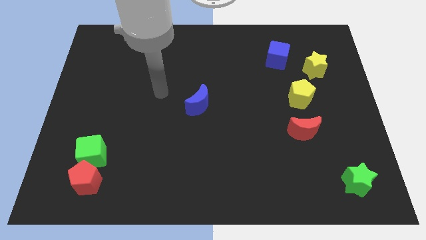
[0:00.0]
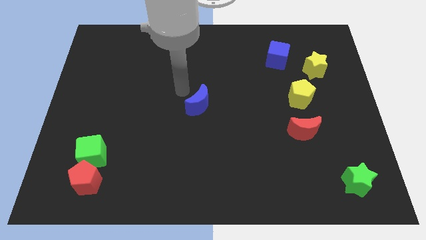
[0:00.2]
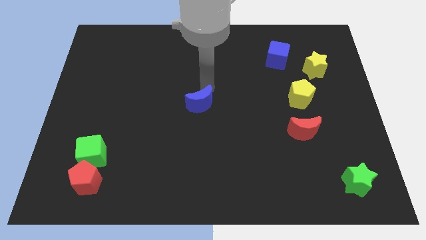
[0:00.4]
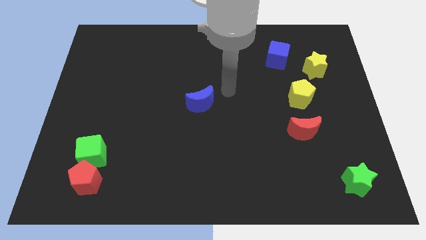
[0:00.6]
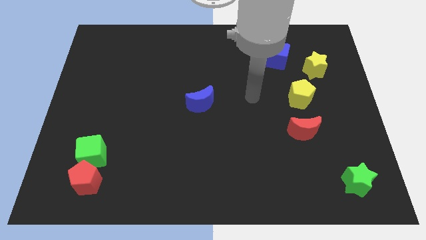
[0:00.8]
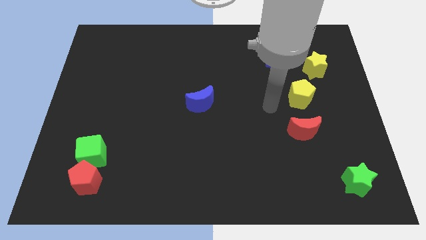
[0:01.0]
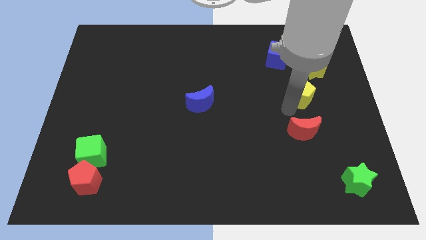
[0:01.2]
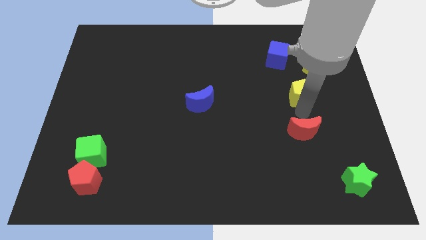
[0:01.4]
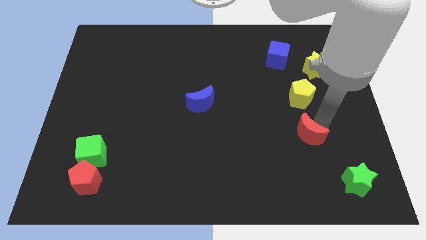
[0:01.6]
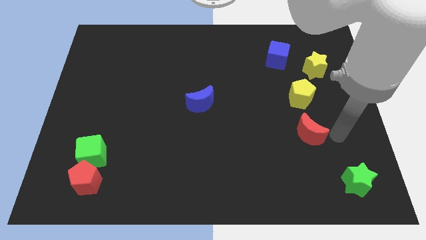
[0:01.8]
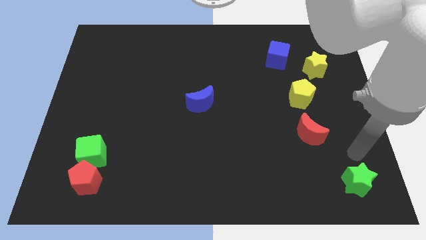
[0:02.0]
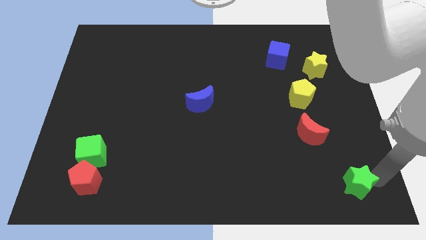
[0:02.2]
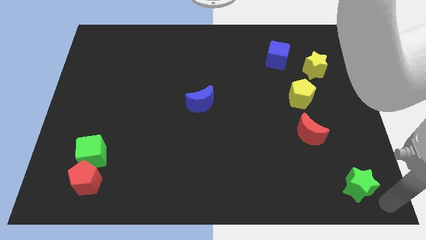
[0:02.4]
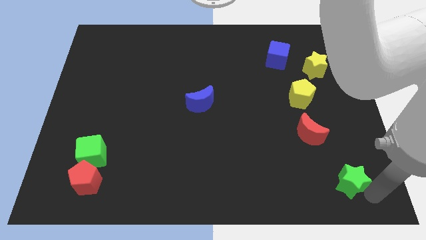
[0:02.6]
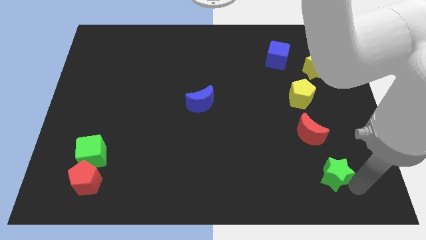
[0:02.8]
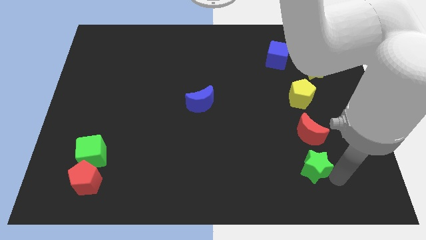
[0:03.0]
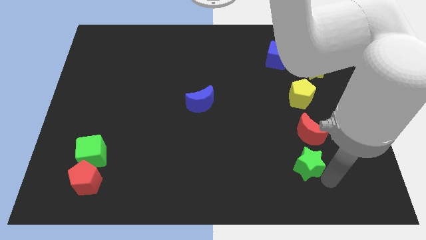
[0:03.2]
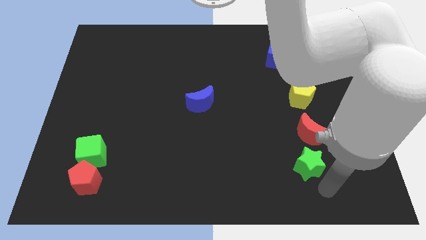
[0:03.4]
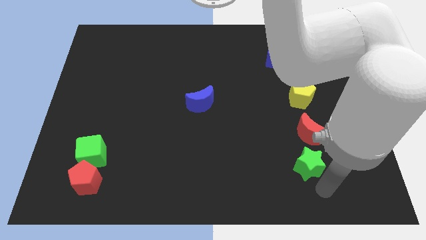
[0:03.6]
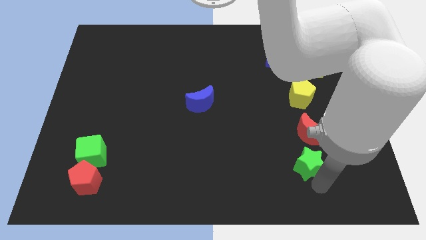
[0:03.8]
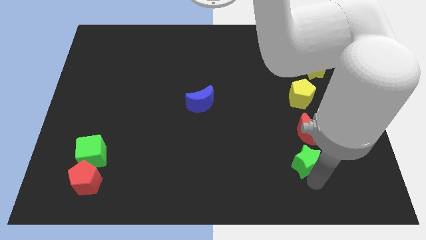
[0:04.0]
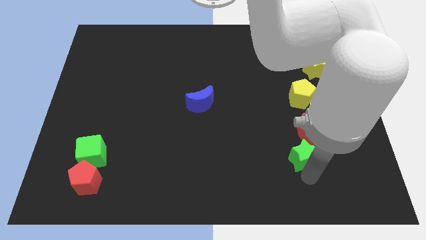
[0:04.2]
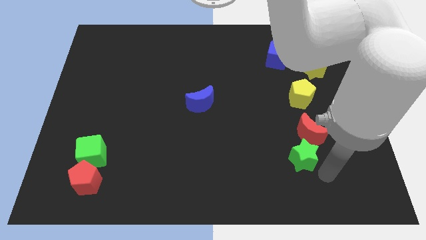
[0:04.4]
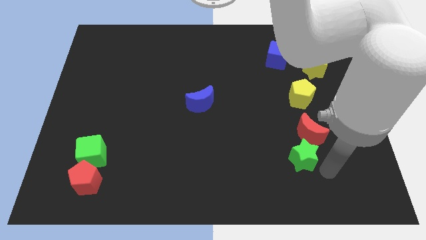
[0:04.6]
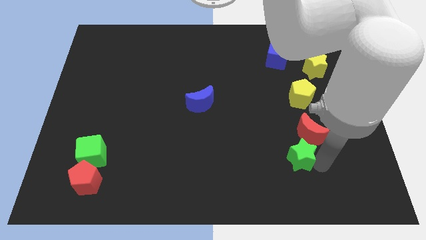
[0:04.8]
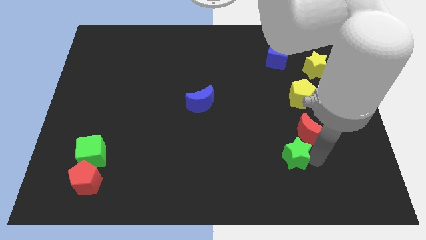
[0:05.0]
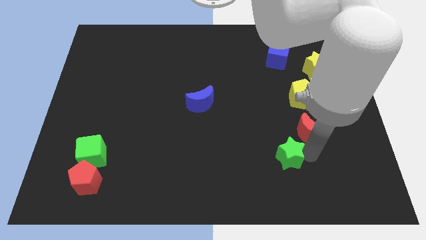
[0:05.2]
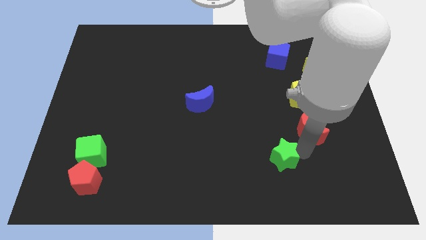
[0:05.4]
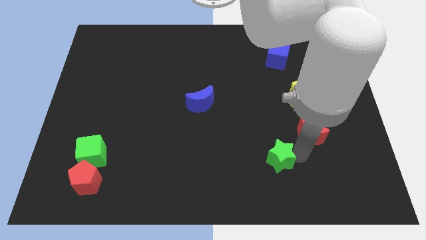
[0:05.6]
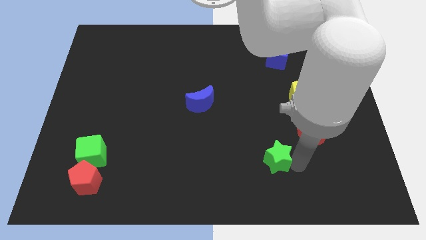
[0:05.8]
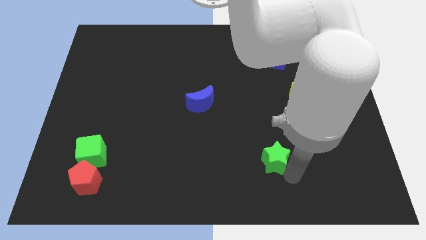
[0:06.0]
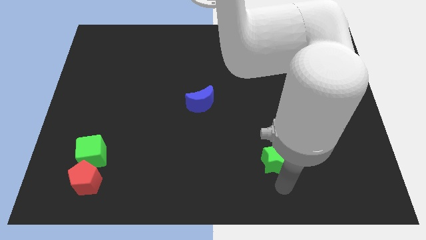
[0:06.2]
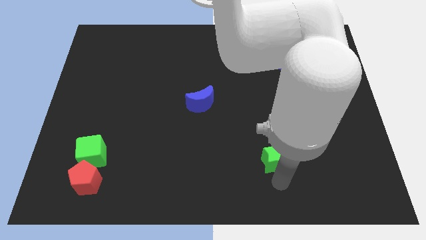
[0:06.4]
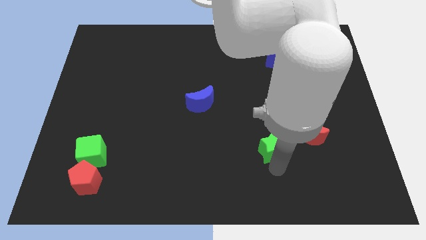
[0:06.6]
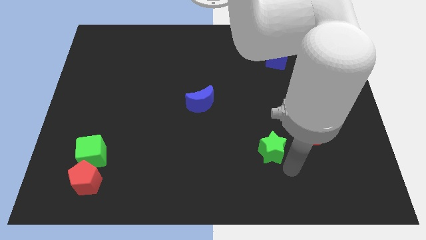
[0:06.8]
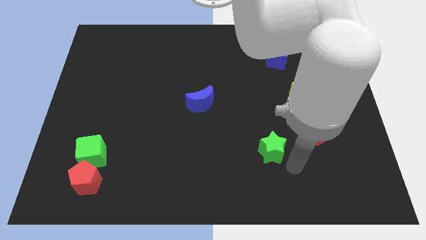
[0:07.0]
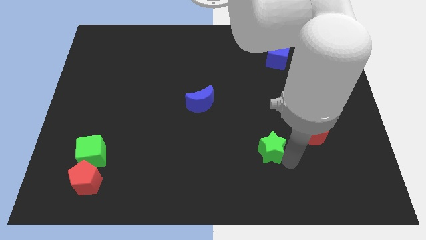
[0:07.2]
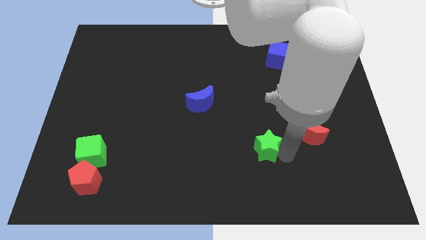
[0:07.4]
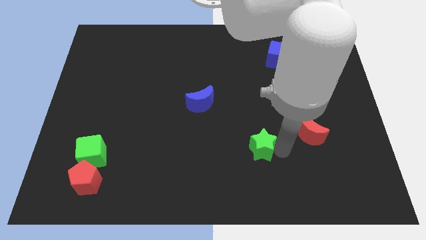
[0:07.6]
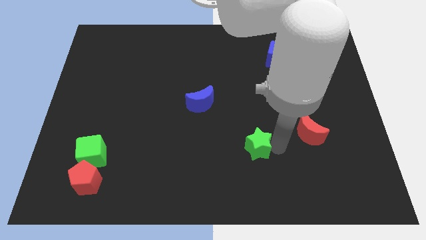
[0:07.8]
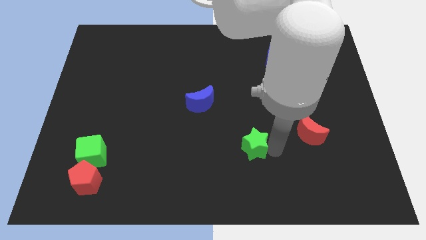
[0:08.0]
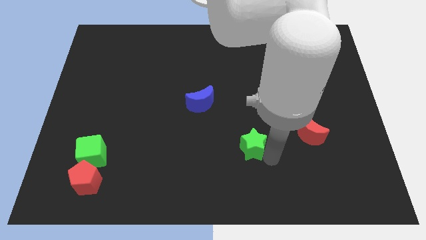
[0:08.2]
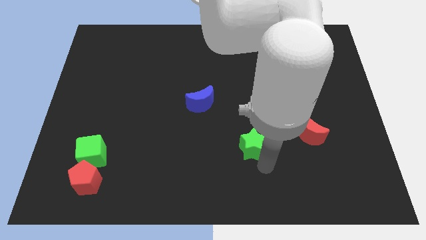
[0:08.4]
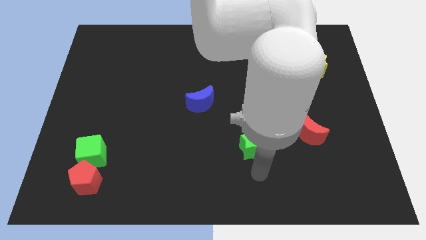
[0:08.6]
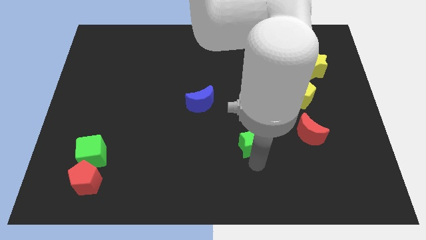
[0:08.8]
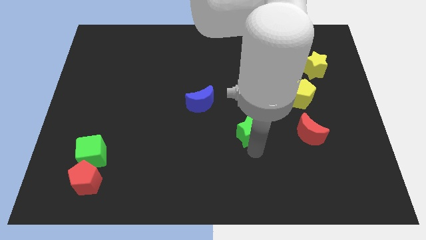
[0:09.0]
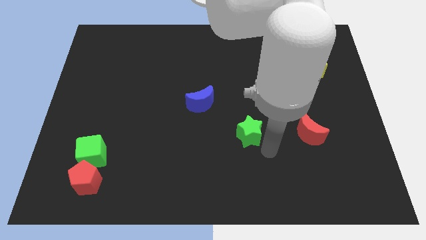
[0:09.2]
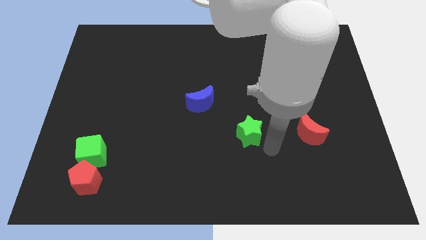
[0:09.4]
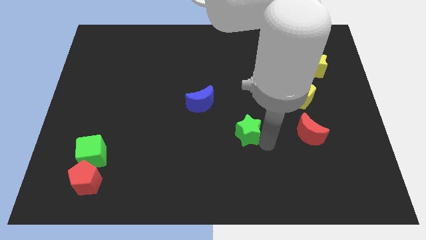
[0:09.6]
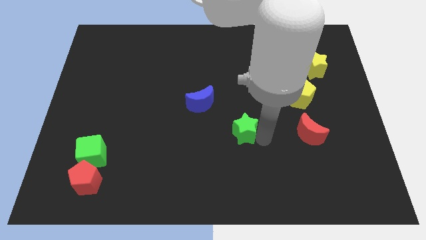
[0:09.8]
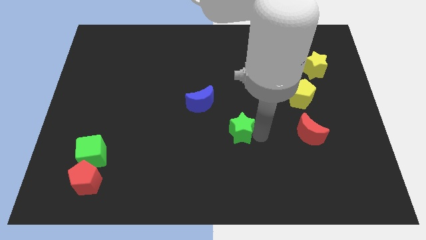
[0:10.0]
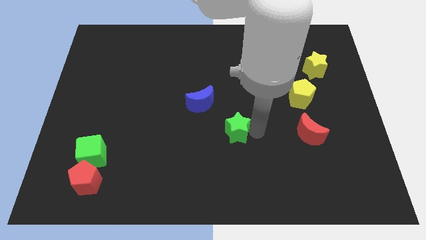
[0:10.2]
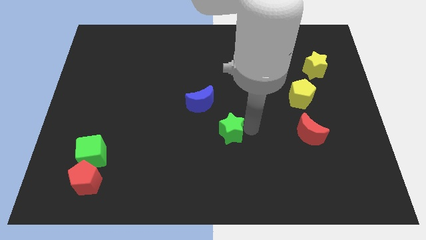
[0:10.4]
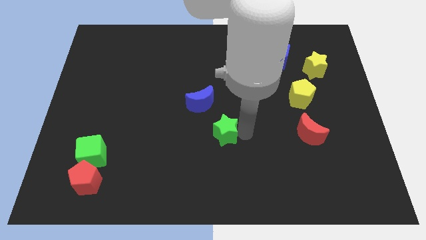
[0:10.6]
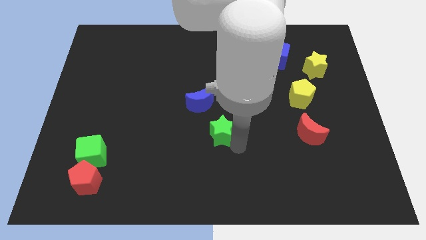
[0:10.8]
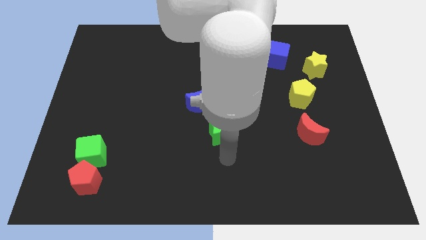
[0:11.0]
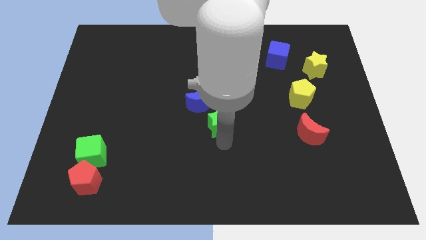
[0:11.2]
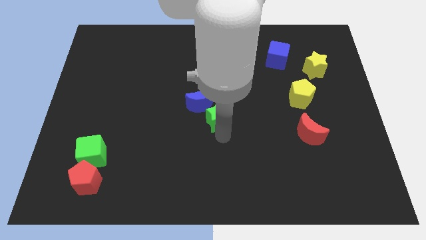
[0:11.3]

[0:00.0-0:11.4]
slide the green star close to the blue moon

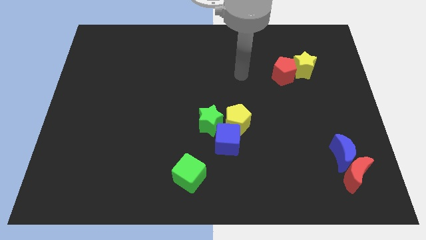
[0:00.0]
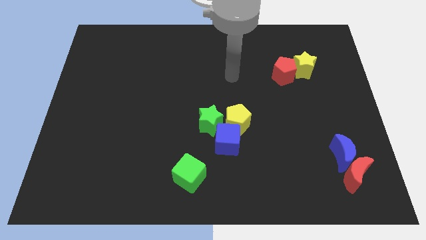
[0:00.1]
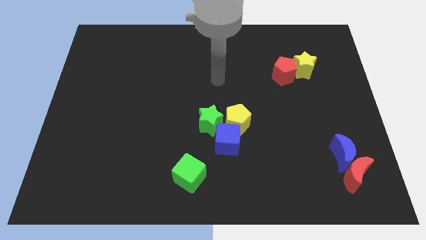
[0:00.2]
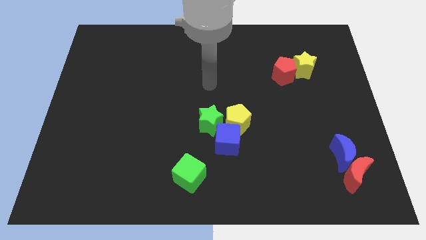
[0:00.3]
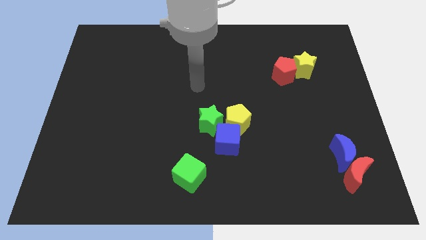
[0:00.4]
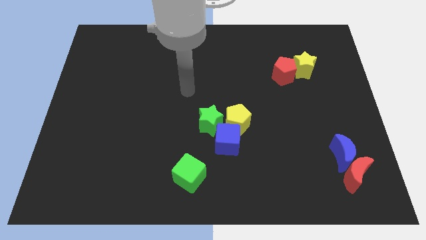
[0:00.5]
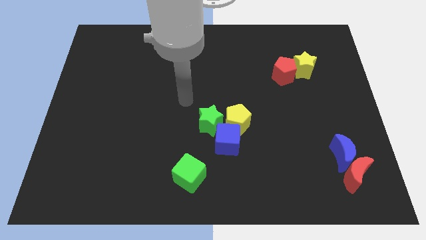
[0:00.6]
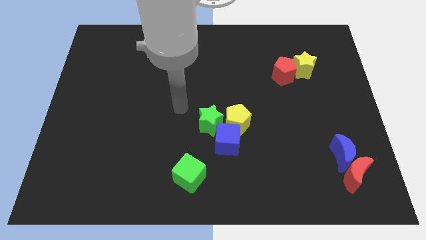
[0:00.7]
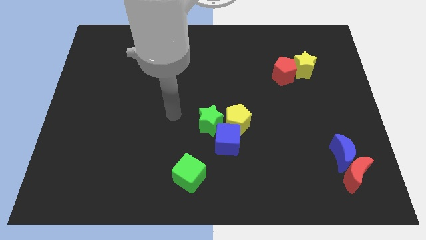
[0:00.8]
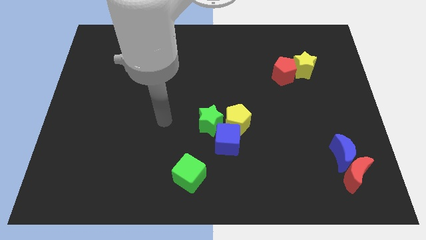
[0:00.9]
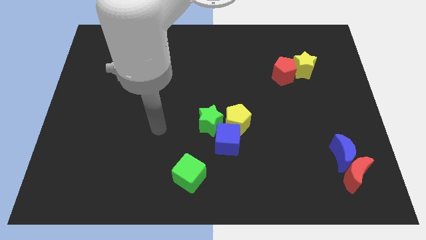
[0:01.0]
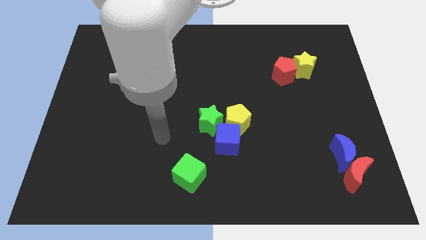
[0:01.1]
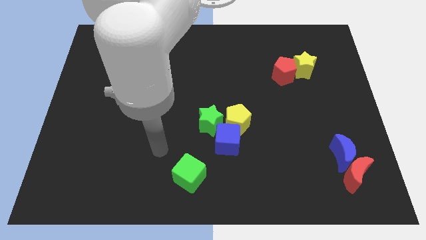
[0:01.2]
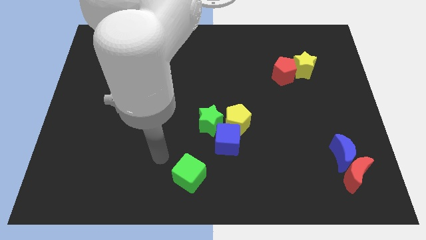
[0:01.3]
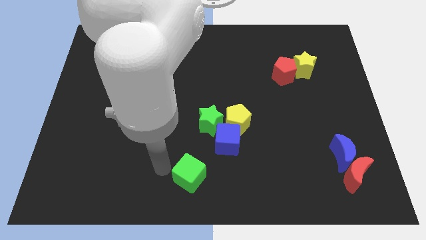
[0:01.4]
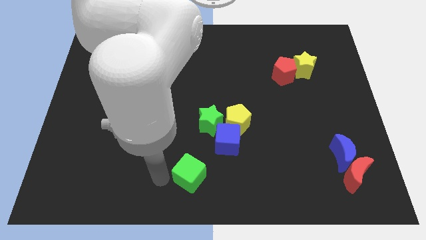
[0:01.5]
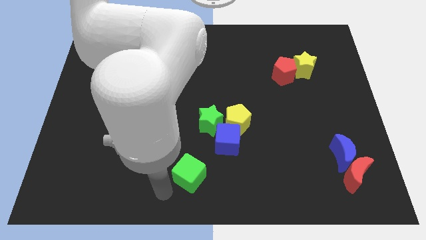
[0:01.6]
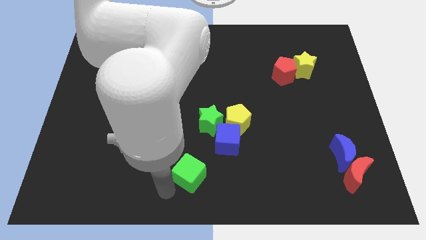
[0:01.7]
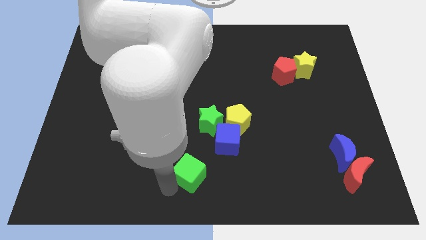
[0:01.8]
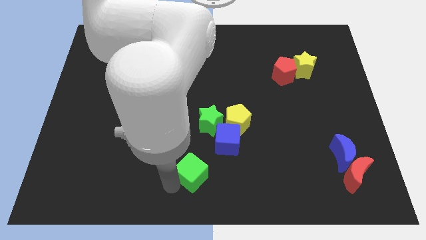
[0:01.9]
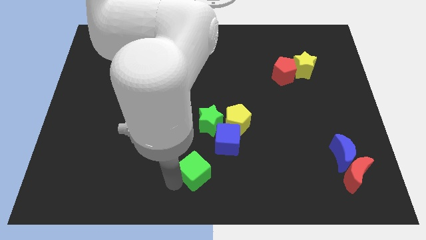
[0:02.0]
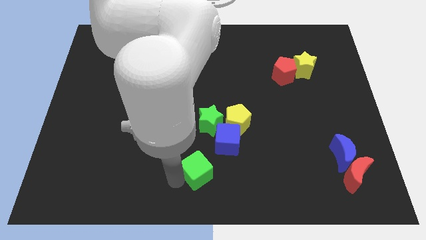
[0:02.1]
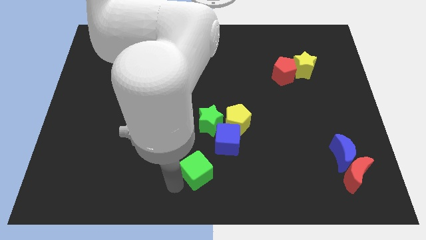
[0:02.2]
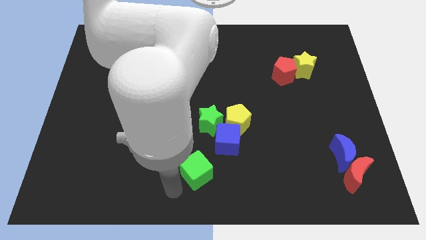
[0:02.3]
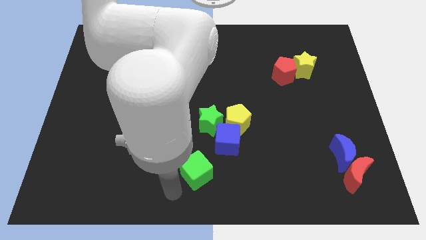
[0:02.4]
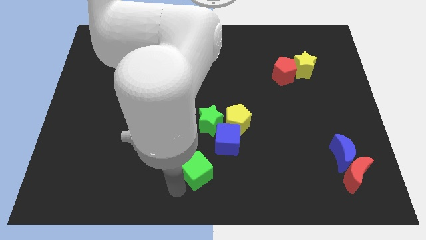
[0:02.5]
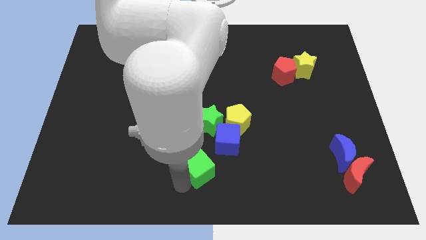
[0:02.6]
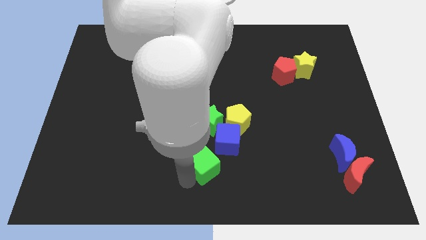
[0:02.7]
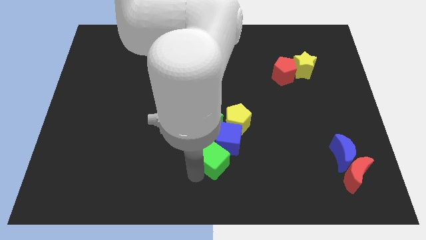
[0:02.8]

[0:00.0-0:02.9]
slide the green cube to the blue cube
